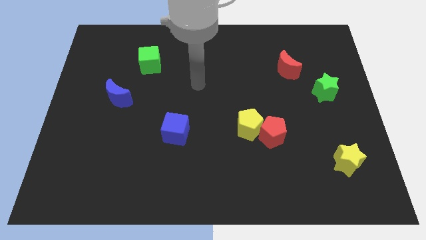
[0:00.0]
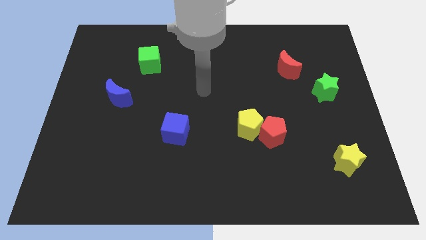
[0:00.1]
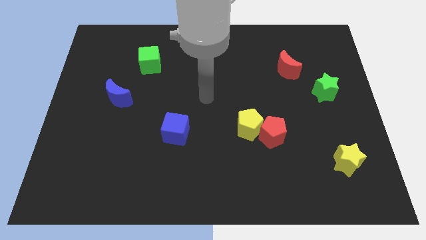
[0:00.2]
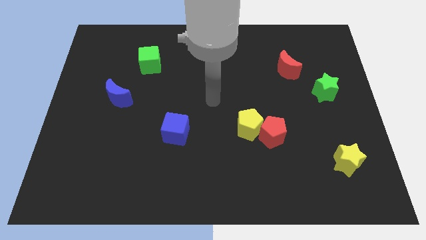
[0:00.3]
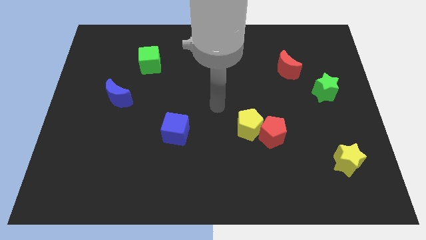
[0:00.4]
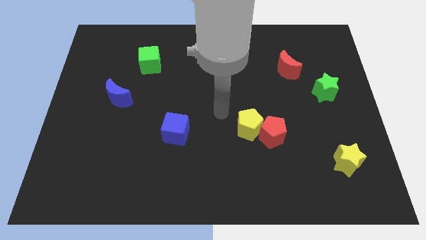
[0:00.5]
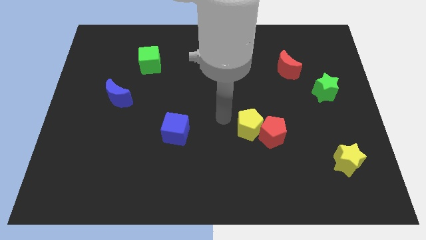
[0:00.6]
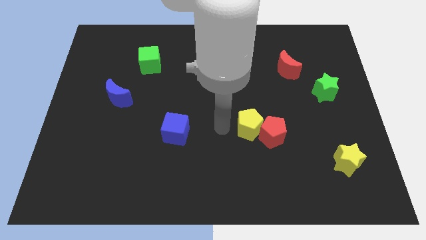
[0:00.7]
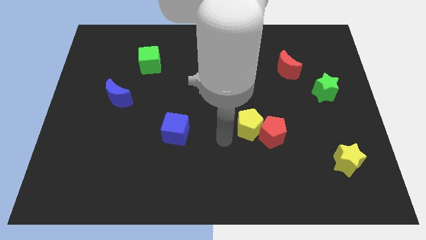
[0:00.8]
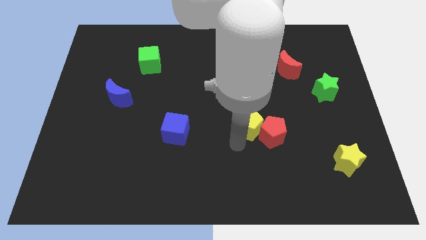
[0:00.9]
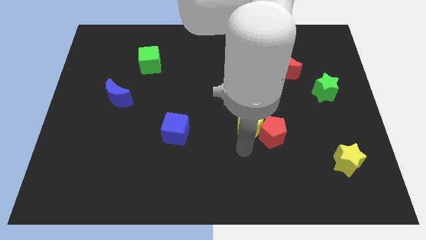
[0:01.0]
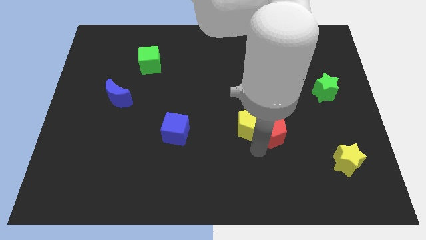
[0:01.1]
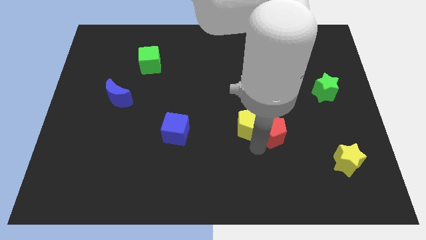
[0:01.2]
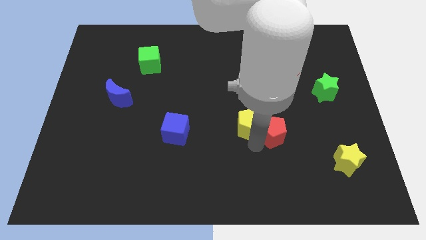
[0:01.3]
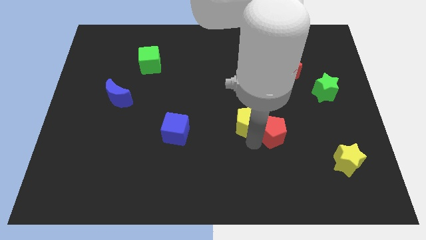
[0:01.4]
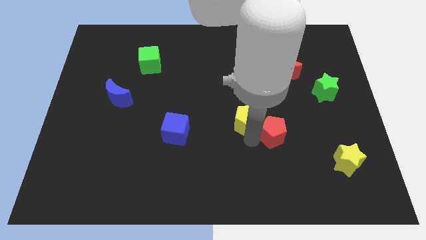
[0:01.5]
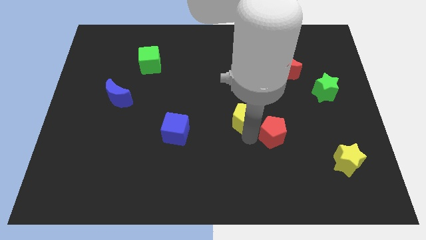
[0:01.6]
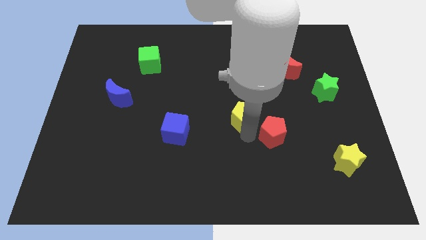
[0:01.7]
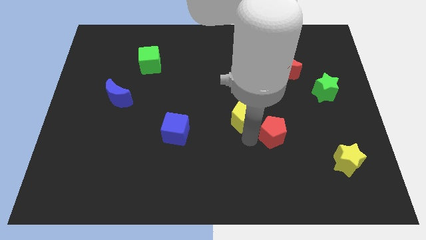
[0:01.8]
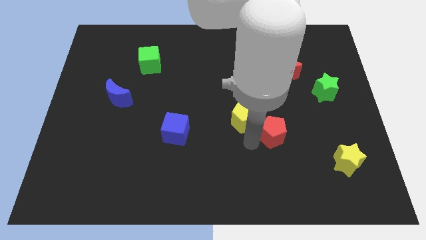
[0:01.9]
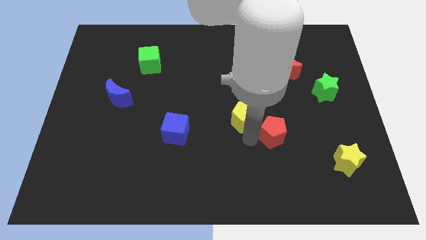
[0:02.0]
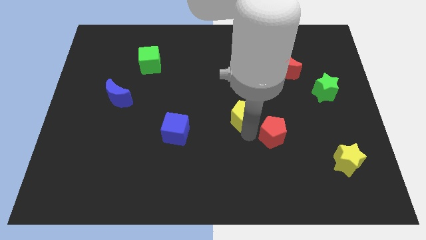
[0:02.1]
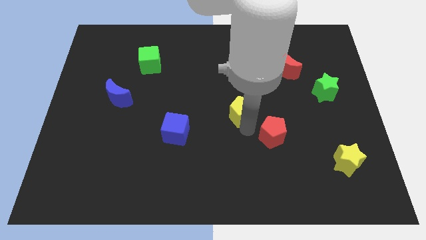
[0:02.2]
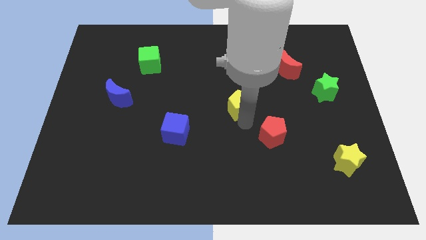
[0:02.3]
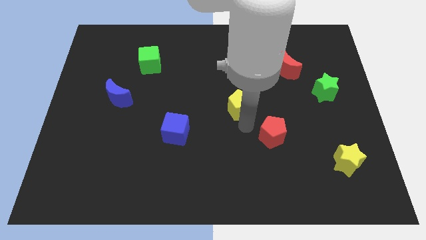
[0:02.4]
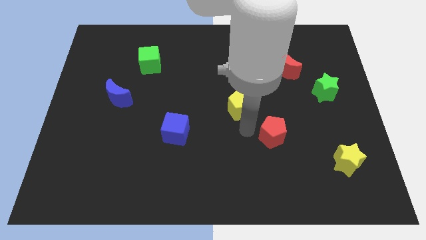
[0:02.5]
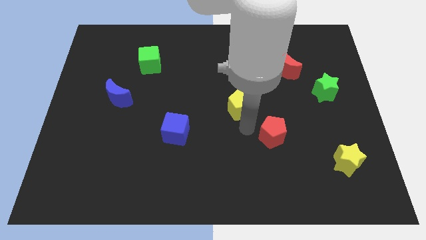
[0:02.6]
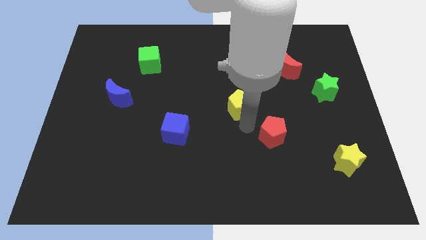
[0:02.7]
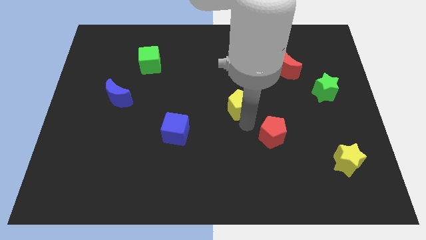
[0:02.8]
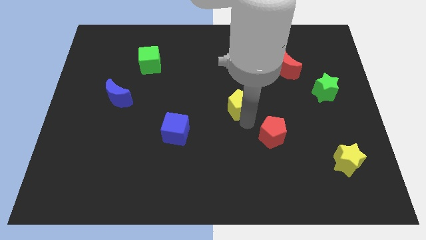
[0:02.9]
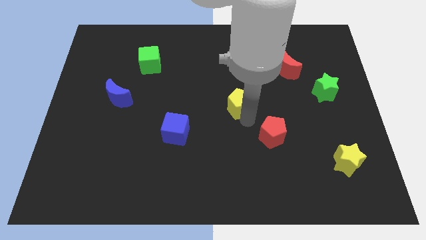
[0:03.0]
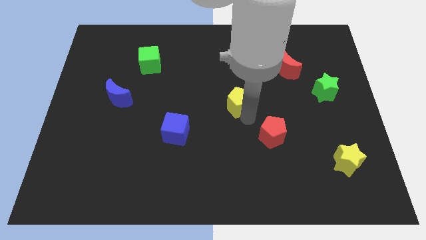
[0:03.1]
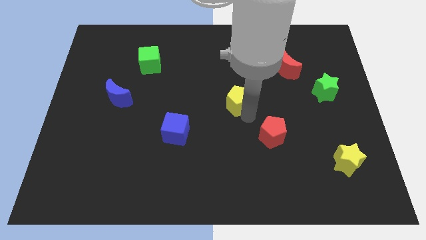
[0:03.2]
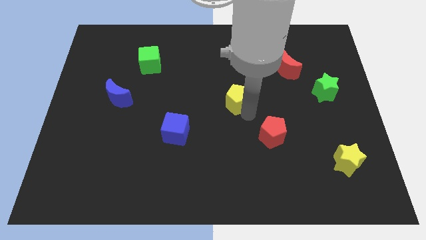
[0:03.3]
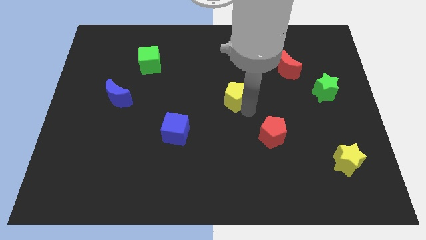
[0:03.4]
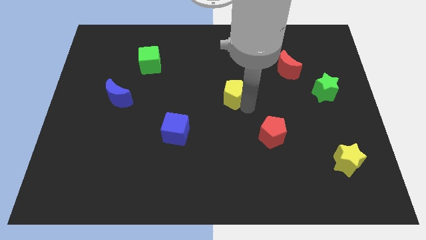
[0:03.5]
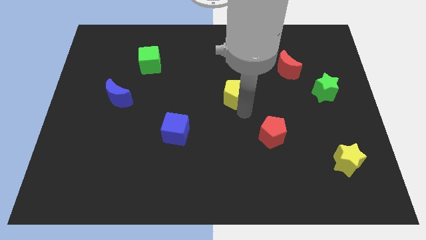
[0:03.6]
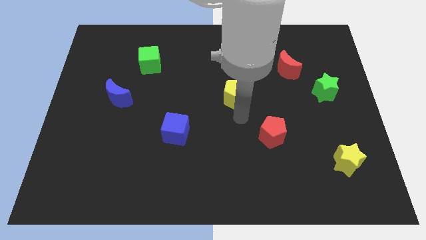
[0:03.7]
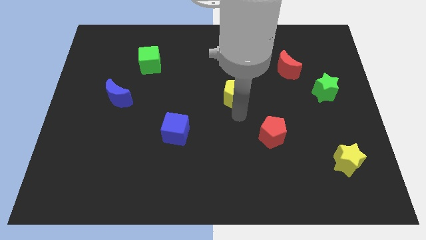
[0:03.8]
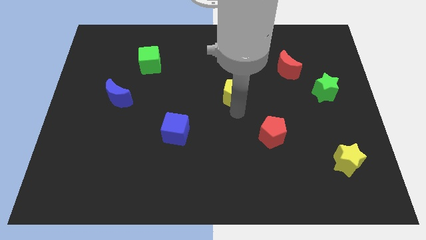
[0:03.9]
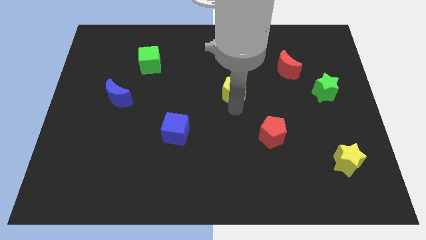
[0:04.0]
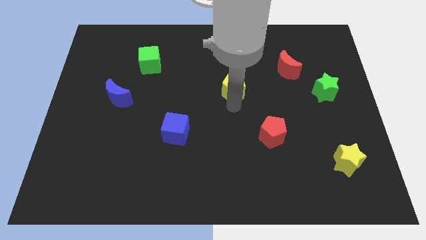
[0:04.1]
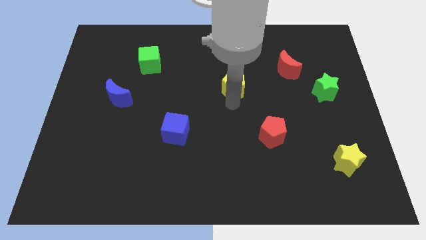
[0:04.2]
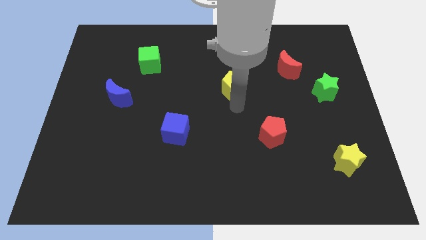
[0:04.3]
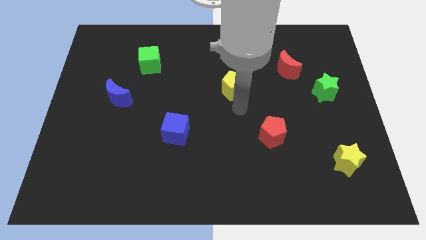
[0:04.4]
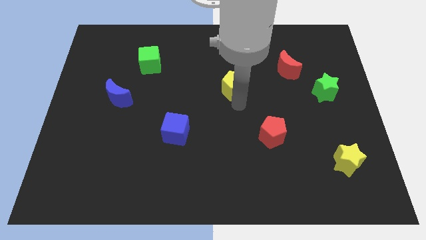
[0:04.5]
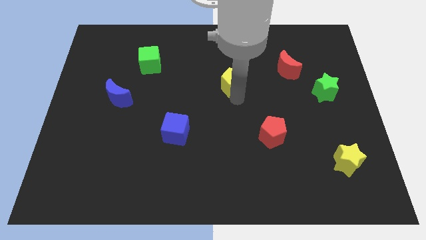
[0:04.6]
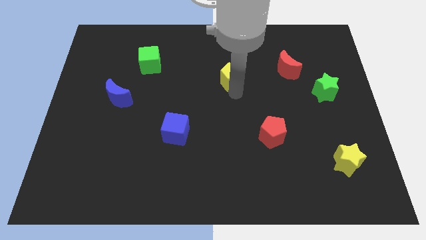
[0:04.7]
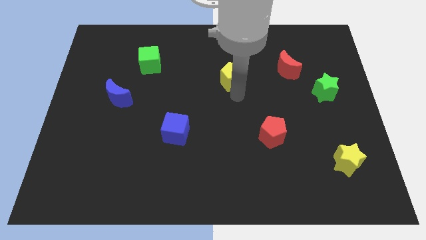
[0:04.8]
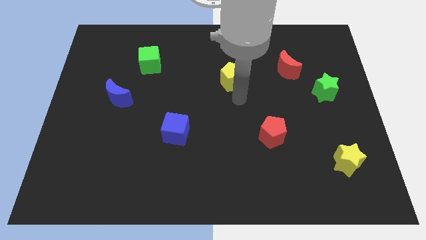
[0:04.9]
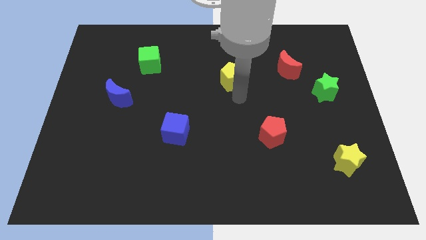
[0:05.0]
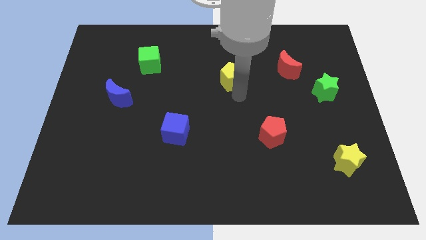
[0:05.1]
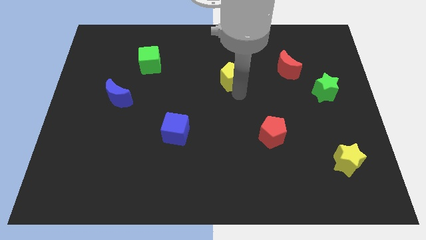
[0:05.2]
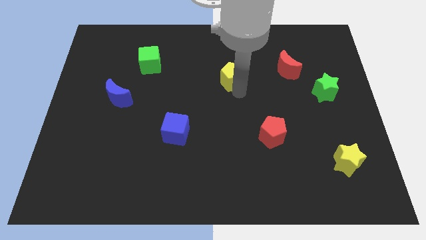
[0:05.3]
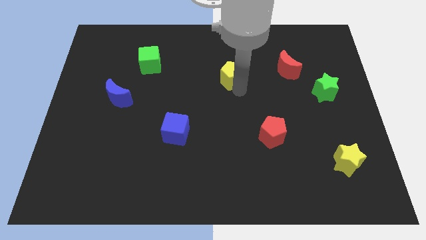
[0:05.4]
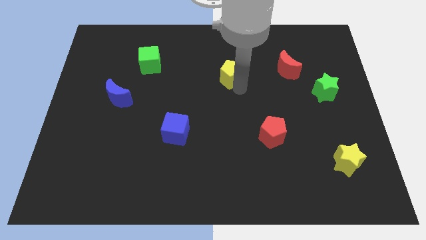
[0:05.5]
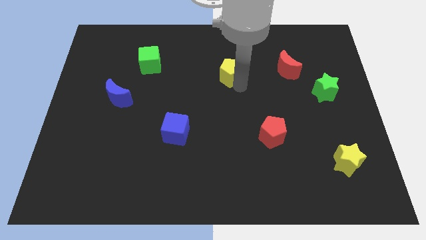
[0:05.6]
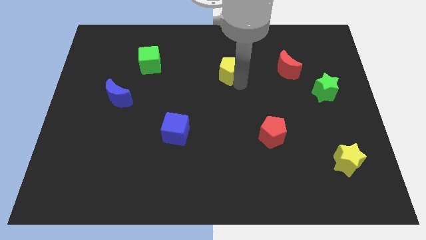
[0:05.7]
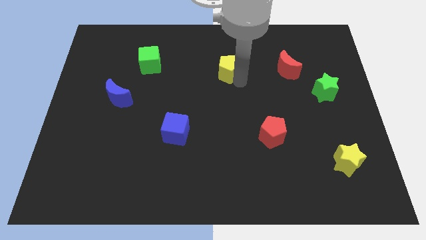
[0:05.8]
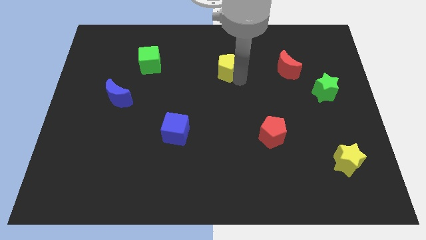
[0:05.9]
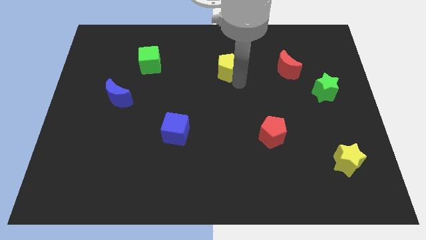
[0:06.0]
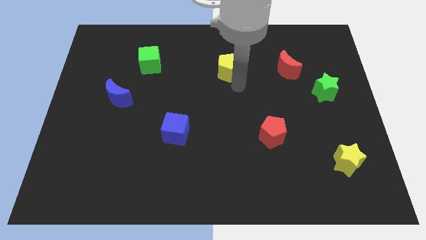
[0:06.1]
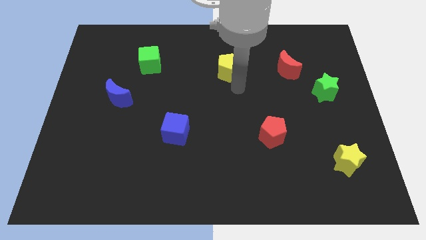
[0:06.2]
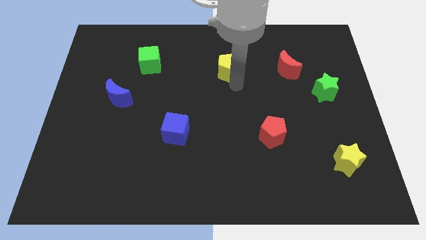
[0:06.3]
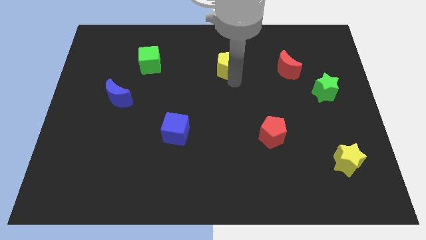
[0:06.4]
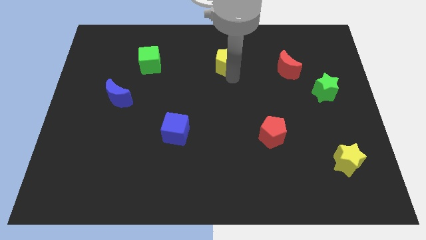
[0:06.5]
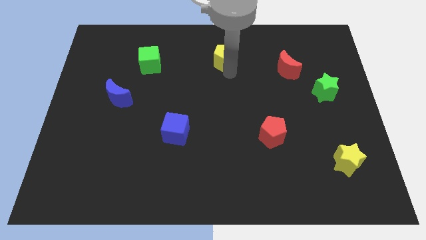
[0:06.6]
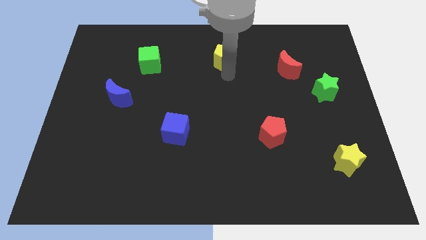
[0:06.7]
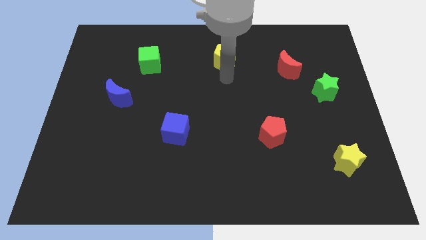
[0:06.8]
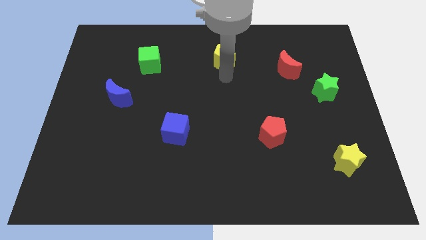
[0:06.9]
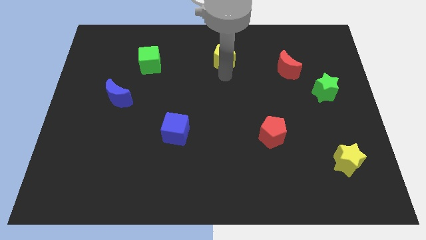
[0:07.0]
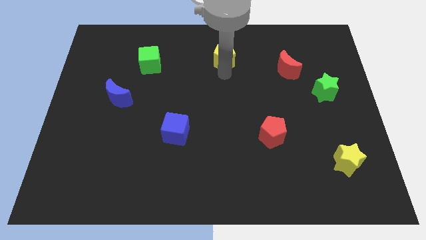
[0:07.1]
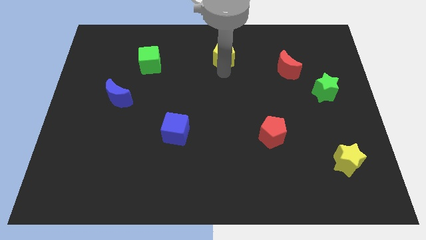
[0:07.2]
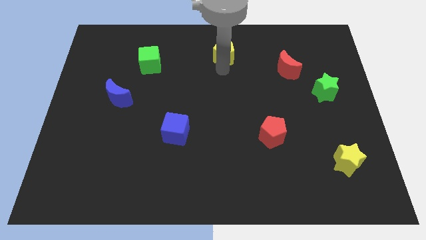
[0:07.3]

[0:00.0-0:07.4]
push the yellow pentagon to the top side
